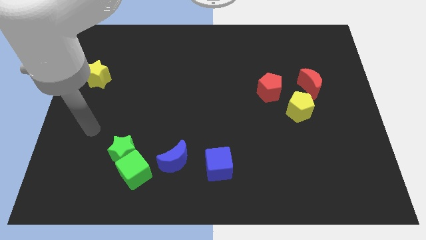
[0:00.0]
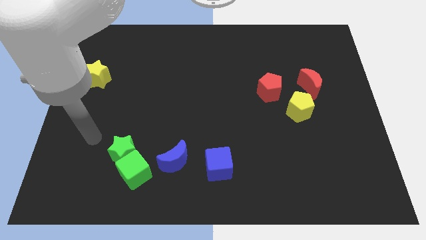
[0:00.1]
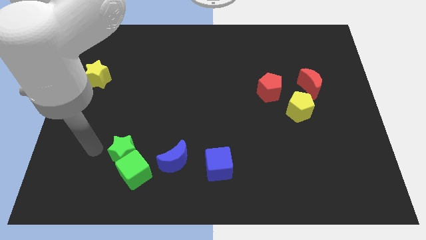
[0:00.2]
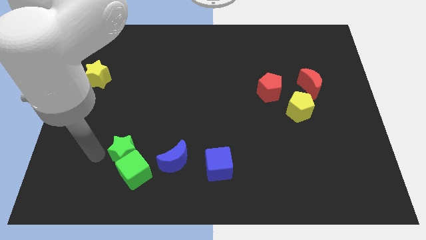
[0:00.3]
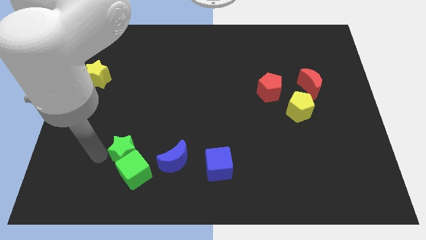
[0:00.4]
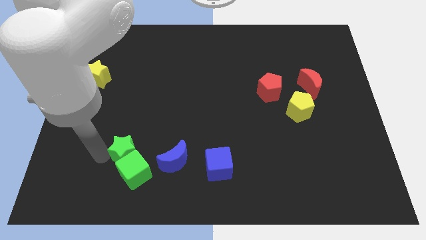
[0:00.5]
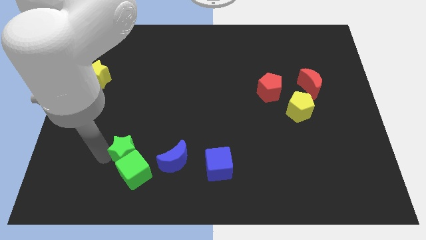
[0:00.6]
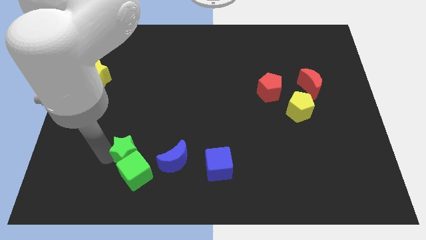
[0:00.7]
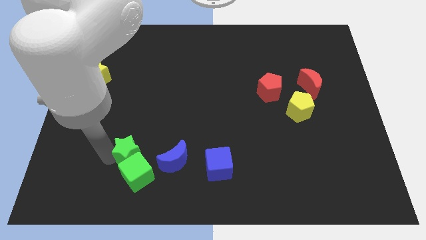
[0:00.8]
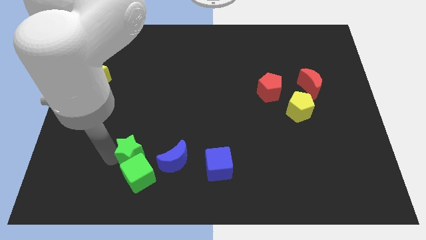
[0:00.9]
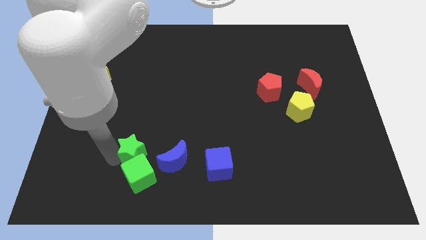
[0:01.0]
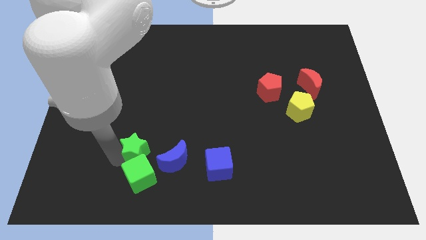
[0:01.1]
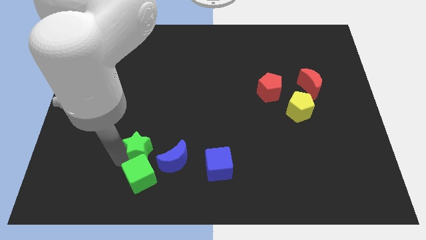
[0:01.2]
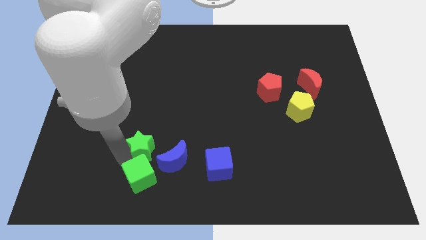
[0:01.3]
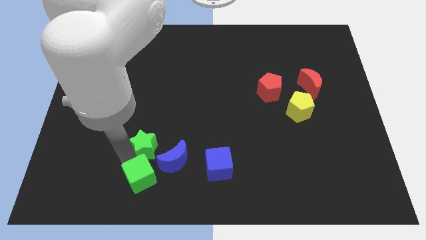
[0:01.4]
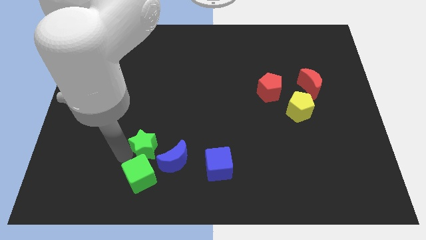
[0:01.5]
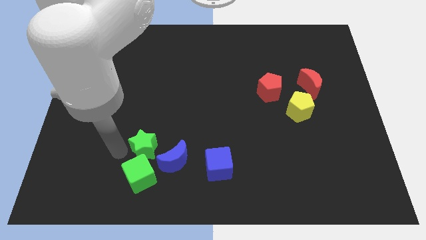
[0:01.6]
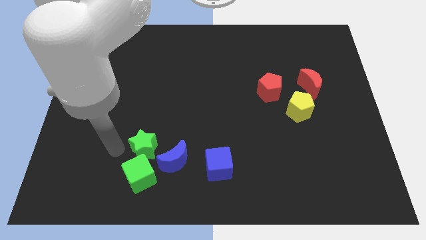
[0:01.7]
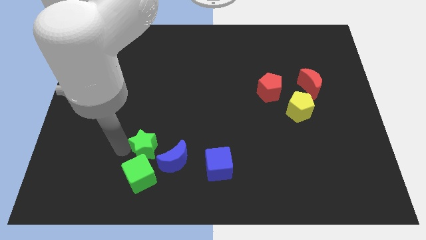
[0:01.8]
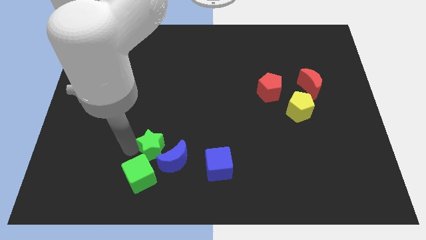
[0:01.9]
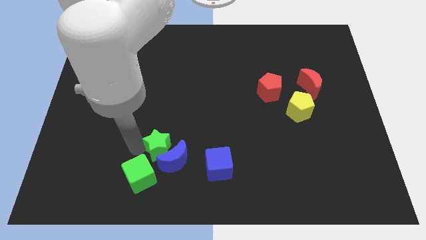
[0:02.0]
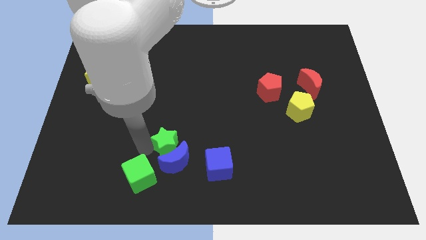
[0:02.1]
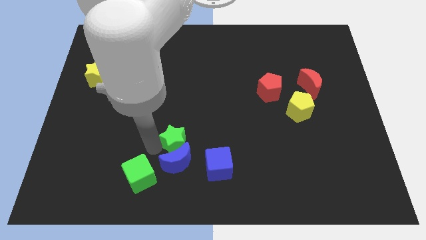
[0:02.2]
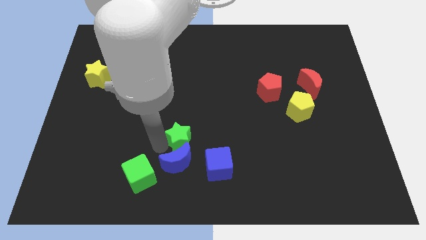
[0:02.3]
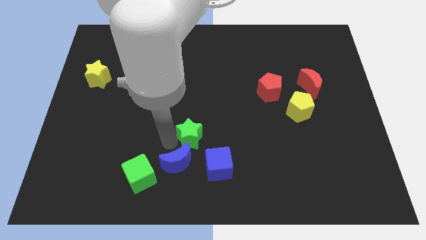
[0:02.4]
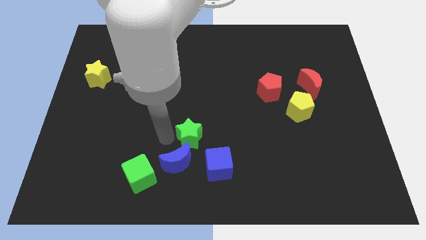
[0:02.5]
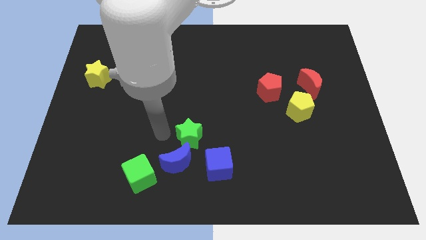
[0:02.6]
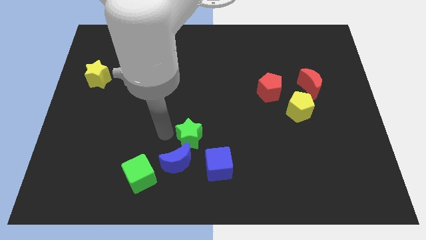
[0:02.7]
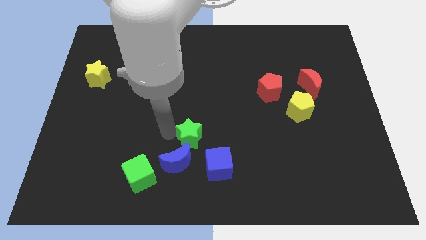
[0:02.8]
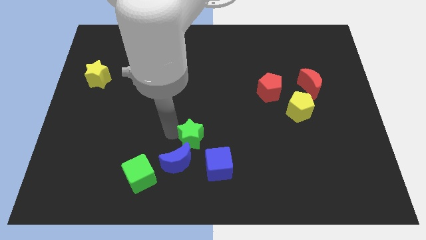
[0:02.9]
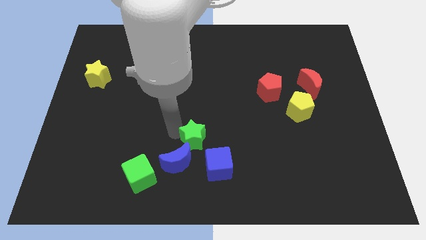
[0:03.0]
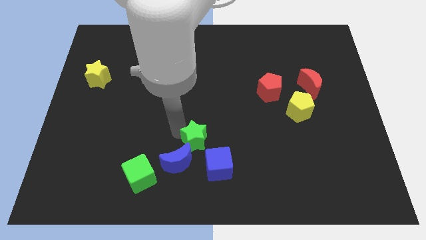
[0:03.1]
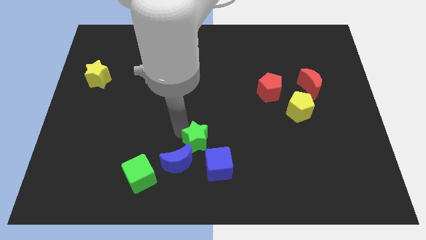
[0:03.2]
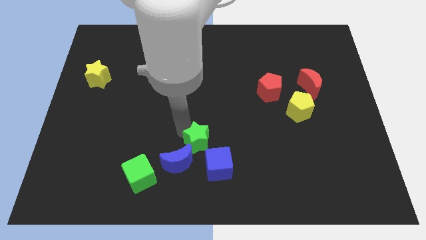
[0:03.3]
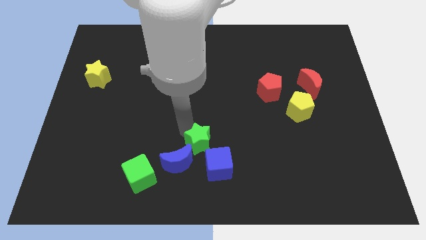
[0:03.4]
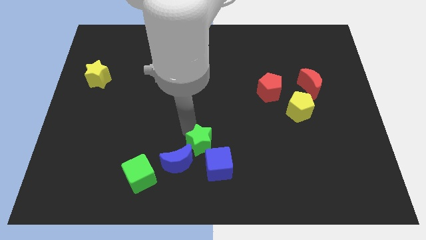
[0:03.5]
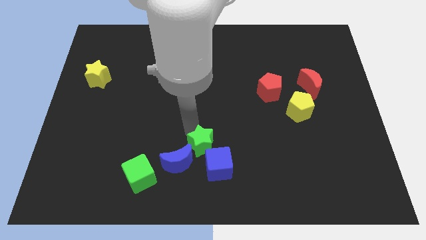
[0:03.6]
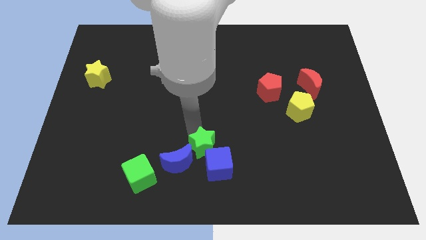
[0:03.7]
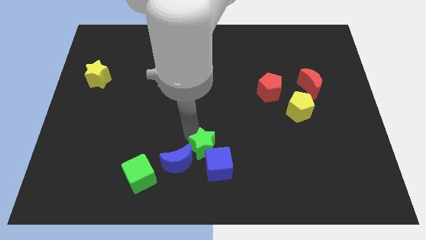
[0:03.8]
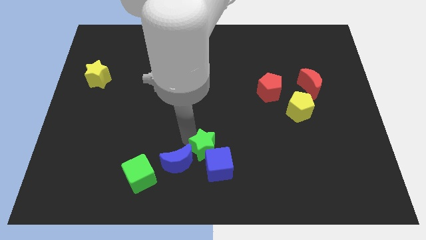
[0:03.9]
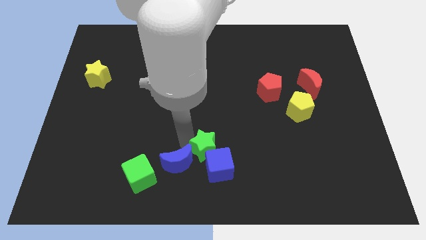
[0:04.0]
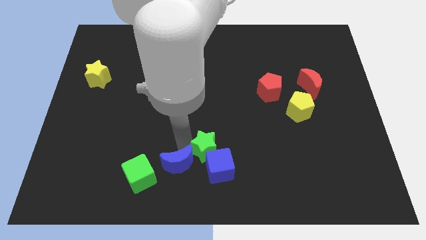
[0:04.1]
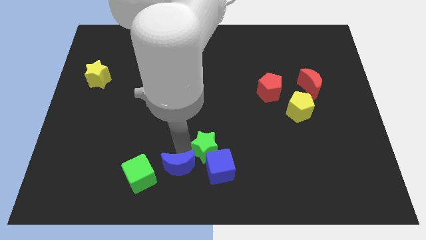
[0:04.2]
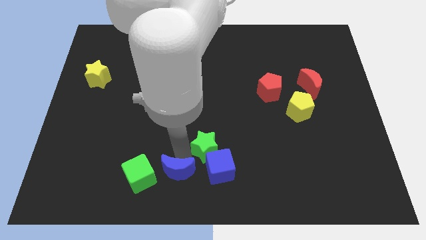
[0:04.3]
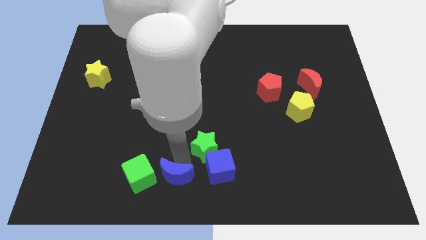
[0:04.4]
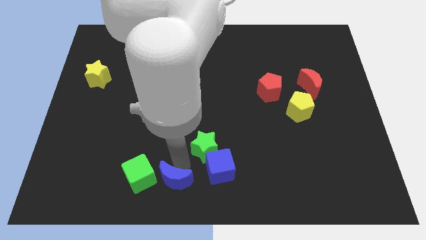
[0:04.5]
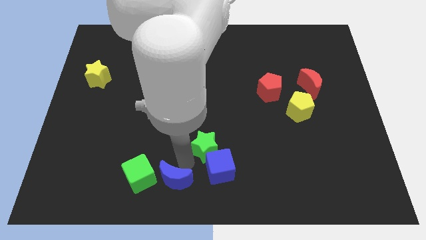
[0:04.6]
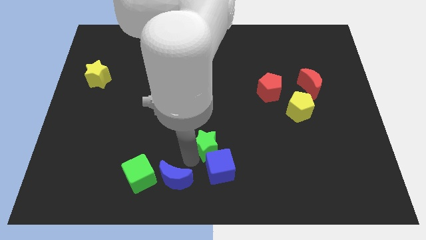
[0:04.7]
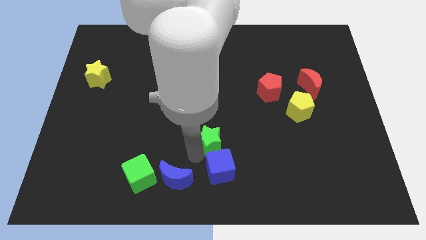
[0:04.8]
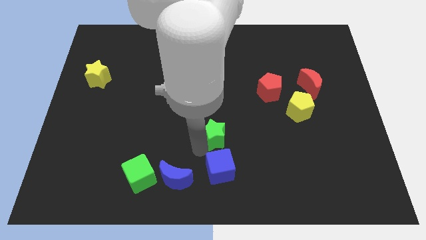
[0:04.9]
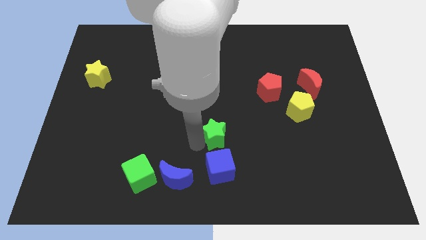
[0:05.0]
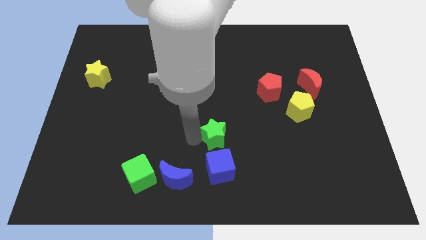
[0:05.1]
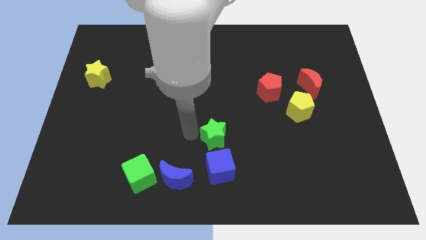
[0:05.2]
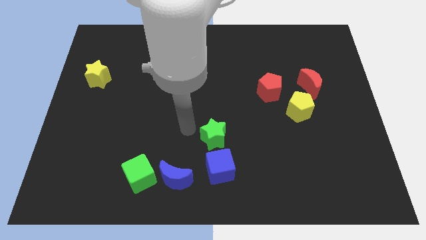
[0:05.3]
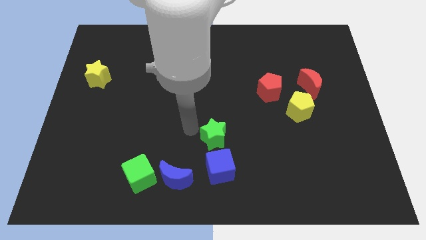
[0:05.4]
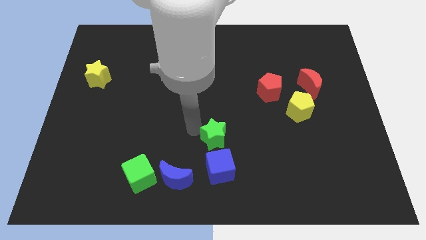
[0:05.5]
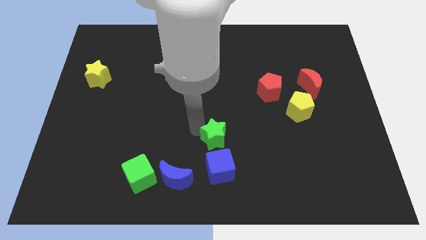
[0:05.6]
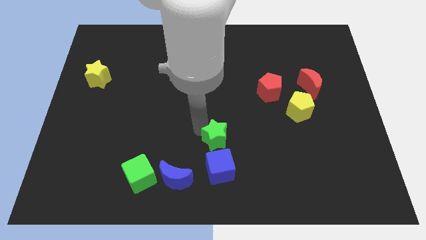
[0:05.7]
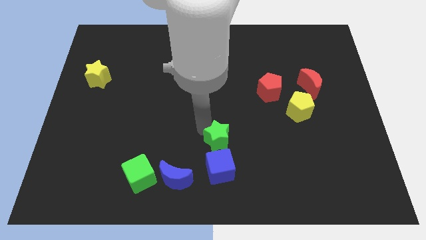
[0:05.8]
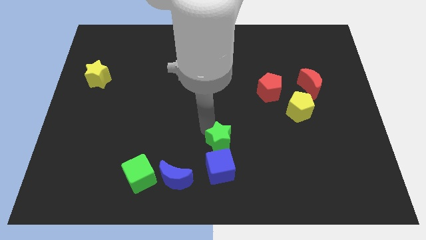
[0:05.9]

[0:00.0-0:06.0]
move the green star right

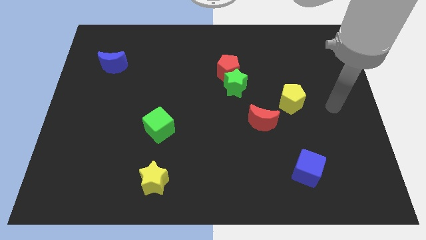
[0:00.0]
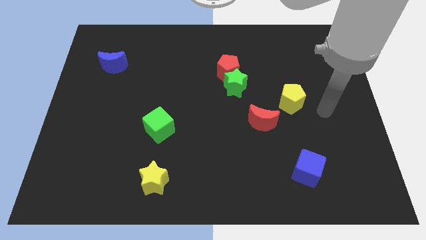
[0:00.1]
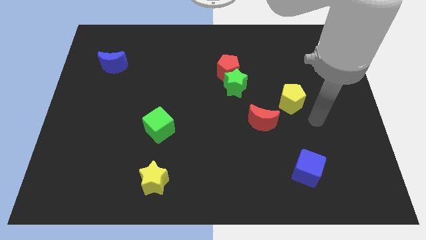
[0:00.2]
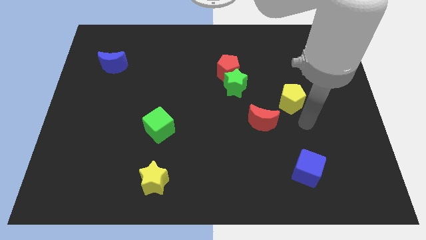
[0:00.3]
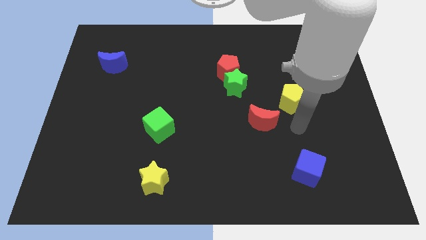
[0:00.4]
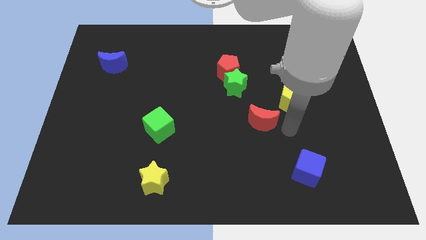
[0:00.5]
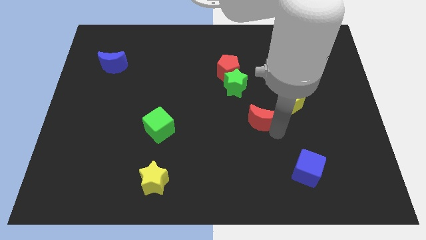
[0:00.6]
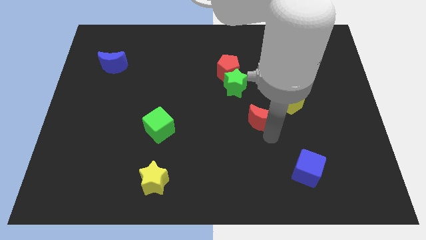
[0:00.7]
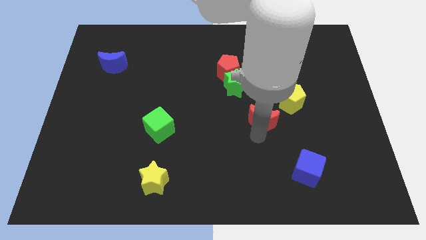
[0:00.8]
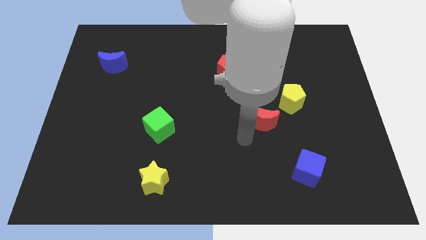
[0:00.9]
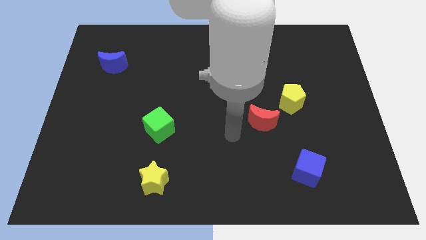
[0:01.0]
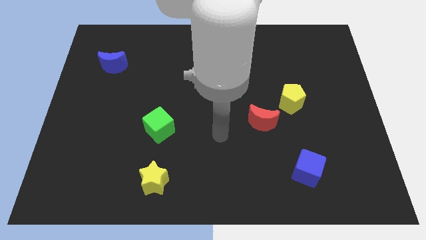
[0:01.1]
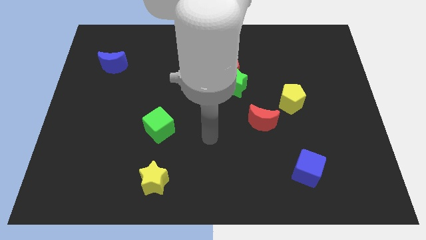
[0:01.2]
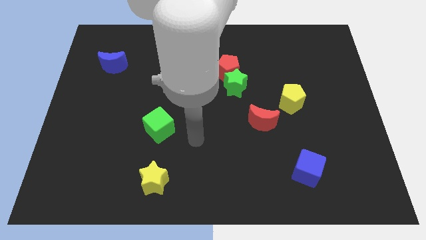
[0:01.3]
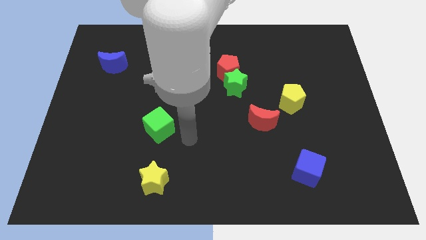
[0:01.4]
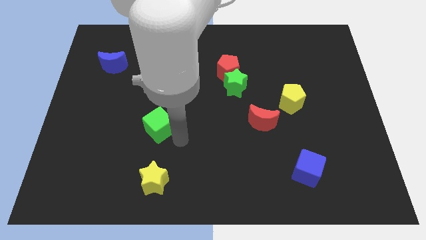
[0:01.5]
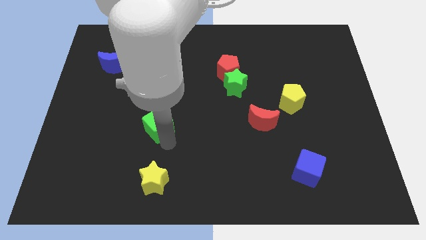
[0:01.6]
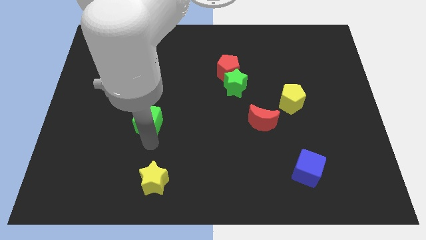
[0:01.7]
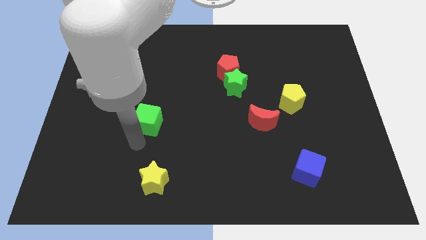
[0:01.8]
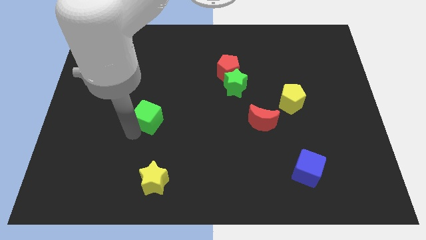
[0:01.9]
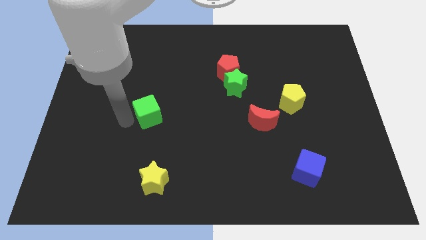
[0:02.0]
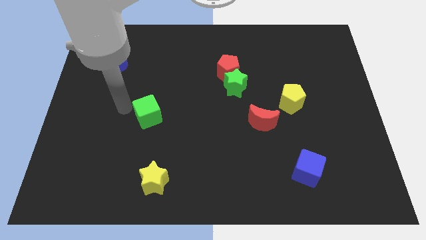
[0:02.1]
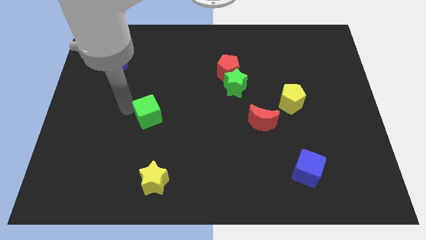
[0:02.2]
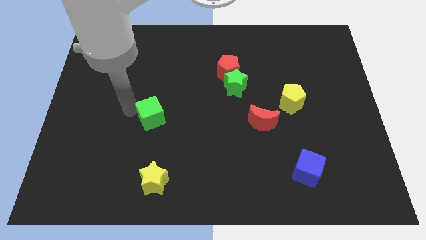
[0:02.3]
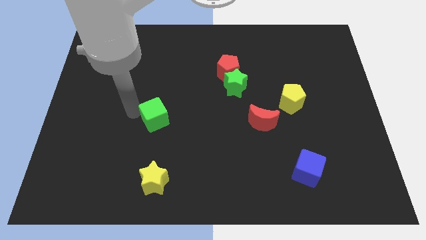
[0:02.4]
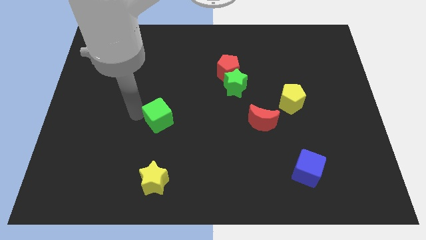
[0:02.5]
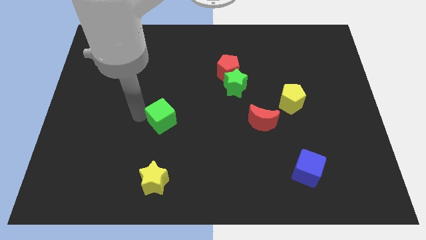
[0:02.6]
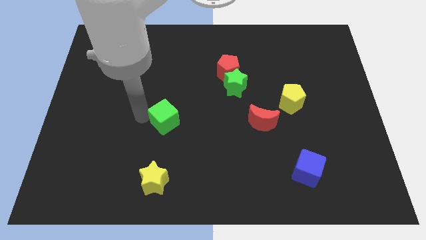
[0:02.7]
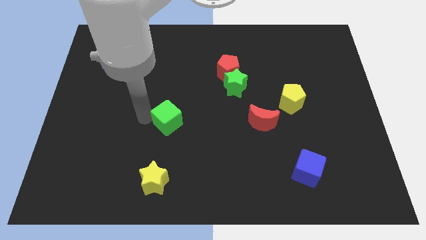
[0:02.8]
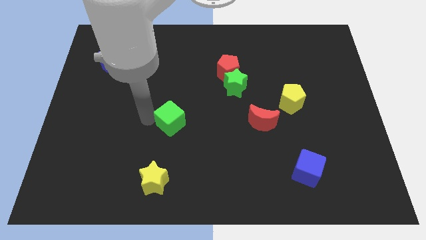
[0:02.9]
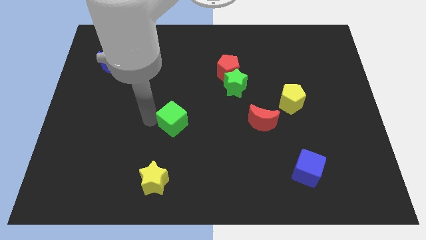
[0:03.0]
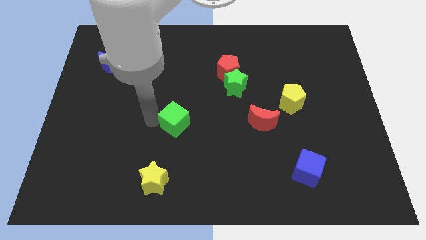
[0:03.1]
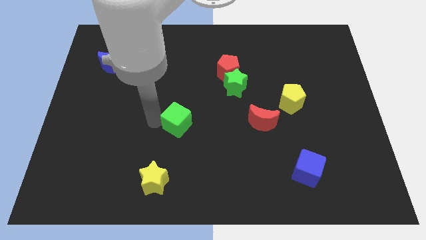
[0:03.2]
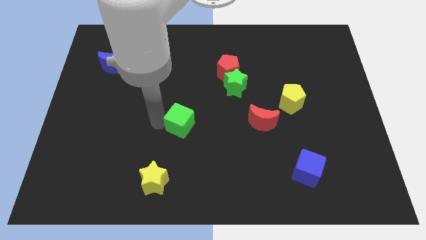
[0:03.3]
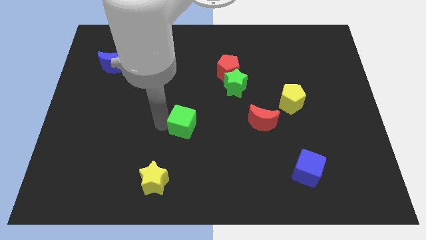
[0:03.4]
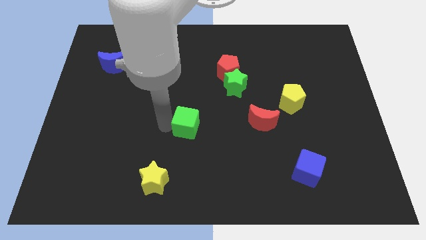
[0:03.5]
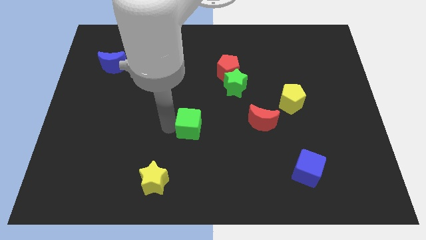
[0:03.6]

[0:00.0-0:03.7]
move the green cube right a little bit
